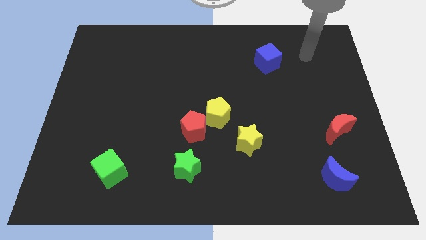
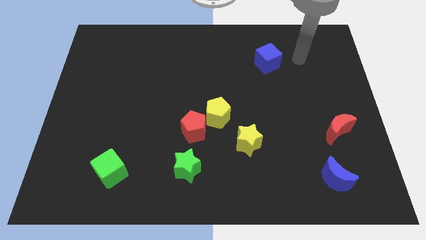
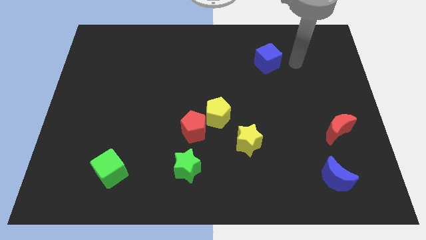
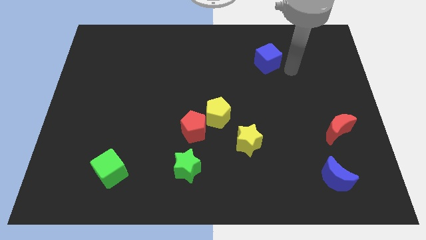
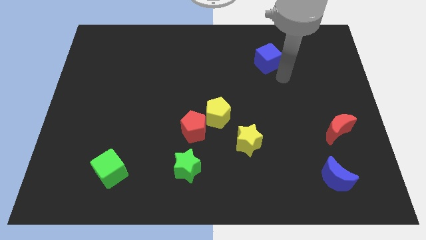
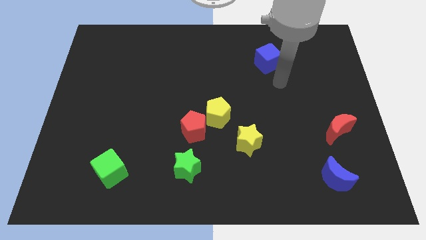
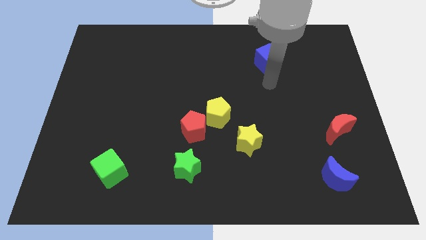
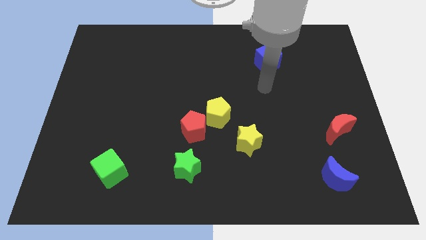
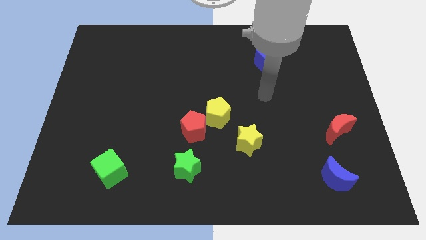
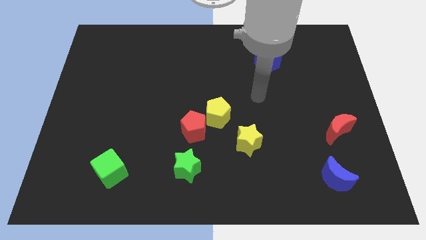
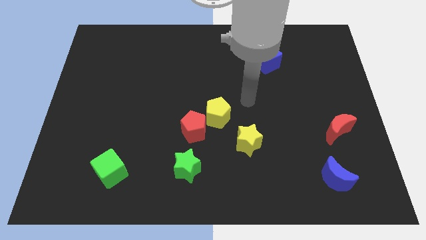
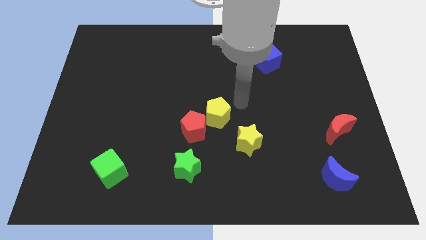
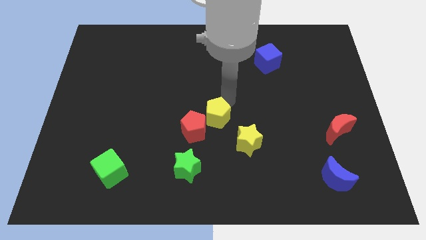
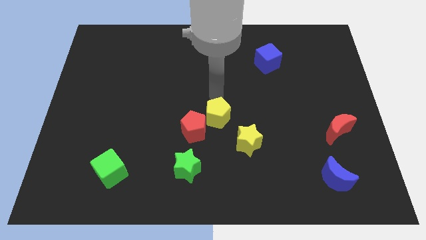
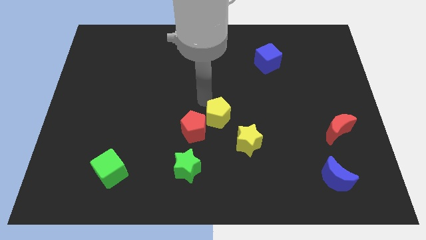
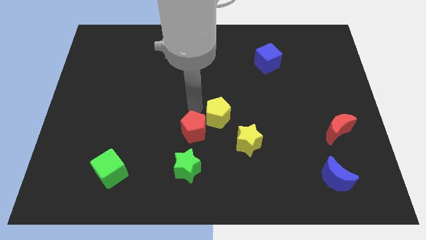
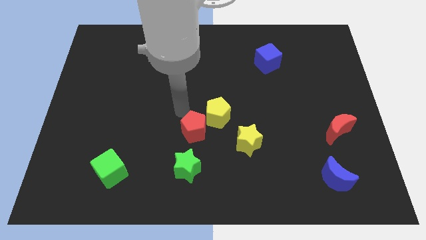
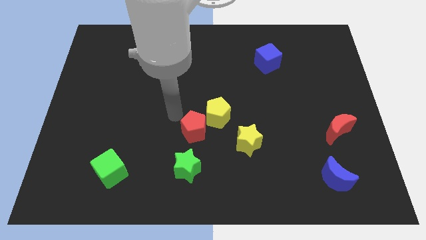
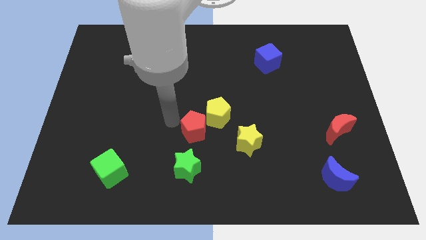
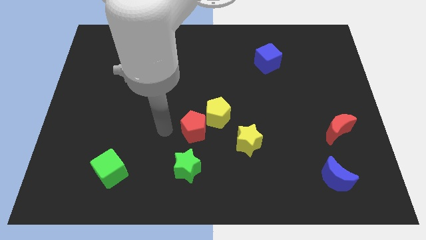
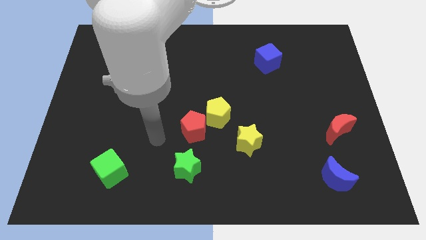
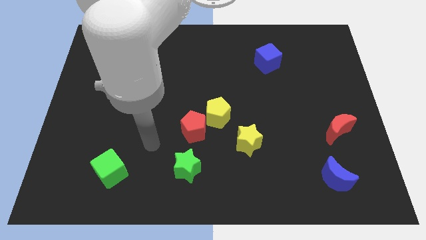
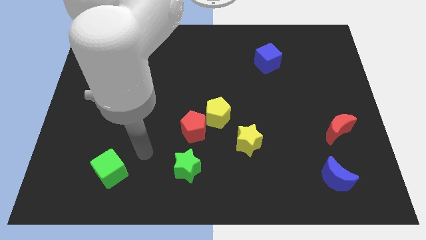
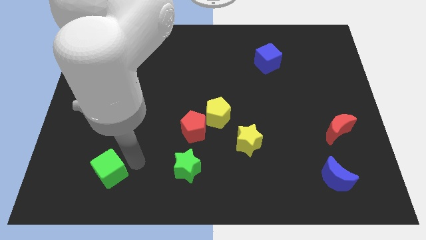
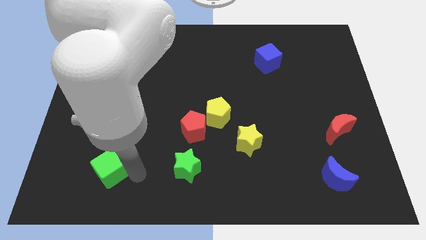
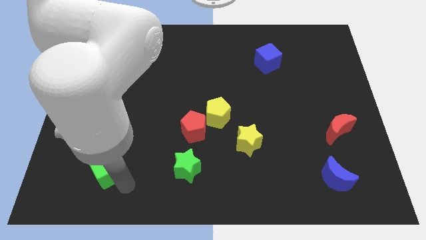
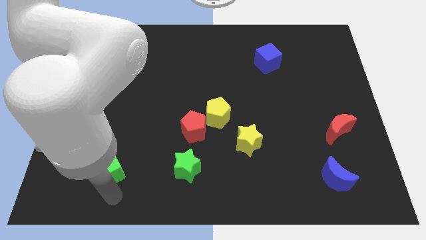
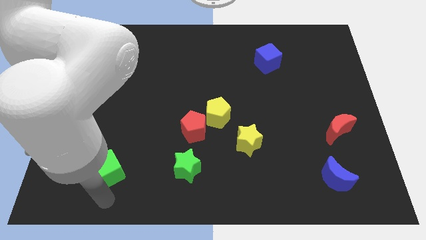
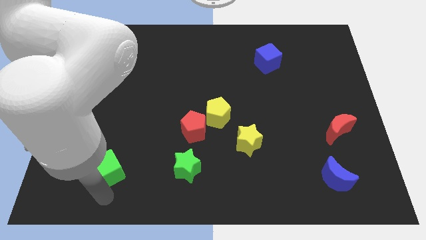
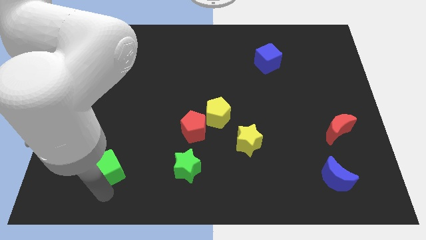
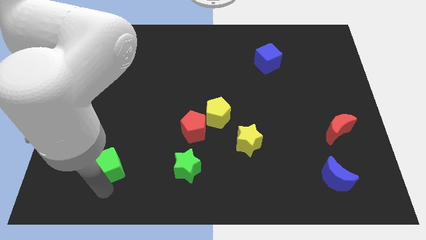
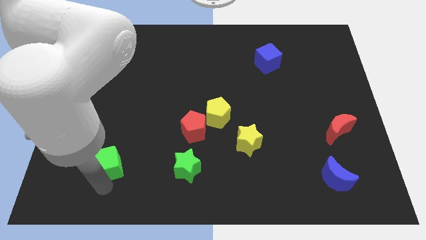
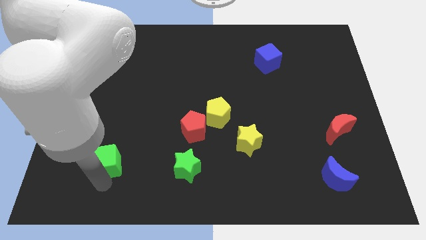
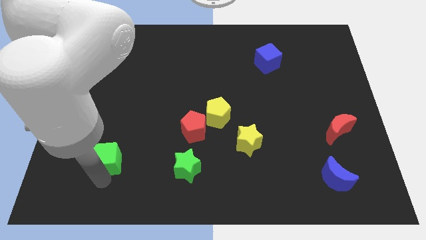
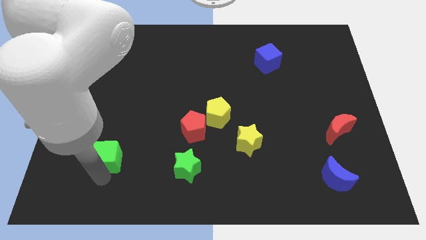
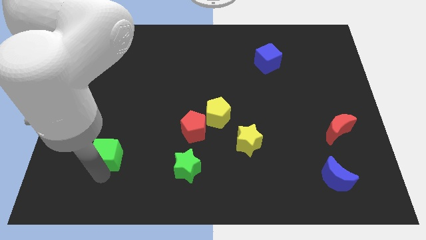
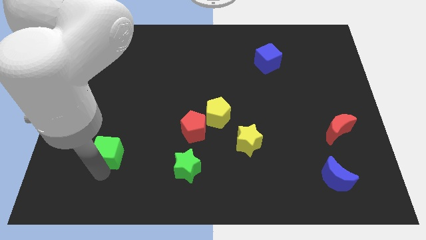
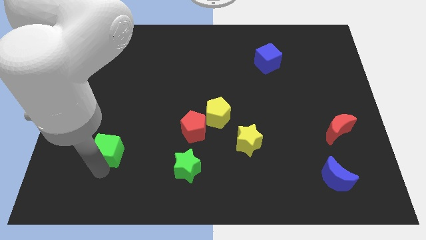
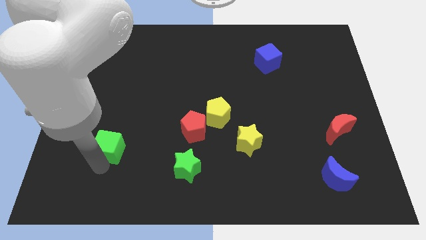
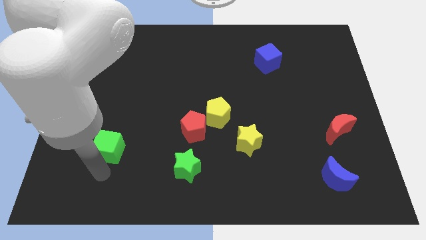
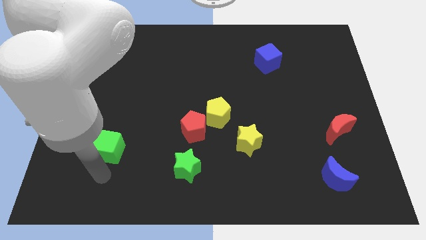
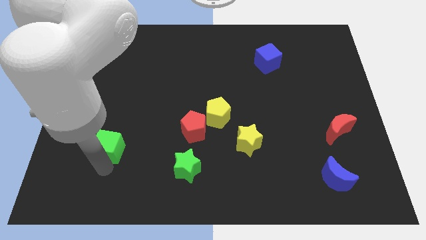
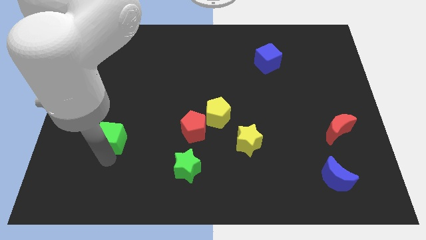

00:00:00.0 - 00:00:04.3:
move the green cube a little upwards

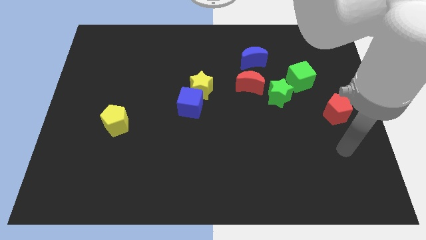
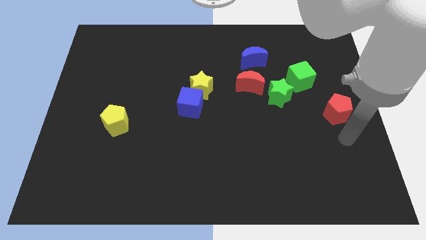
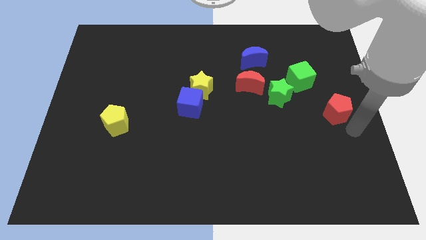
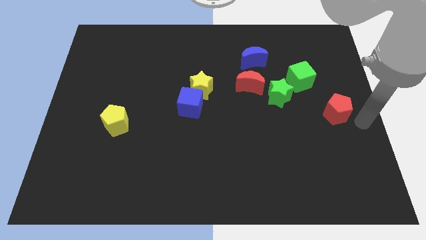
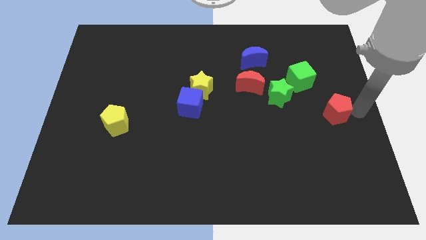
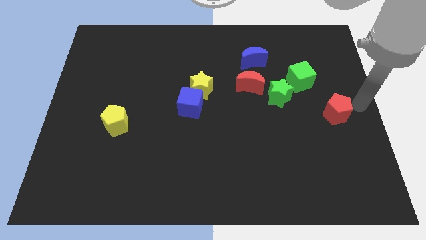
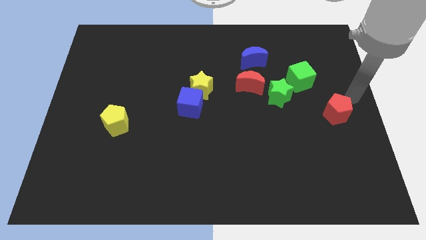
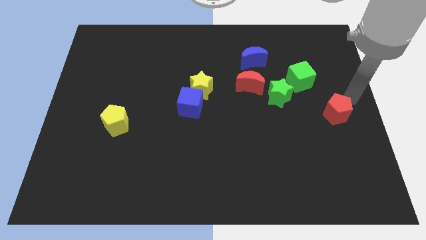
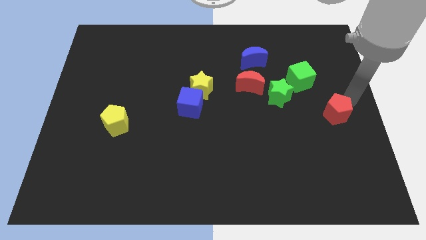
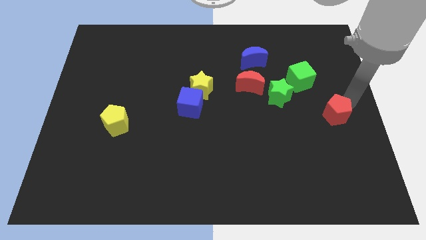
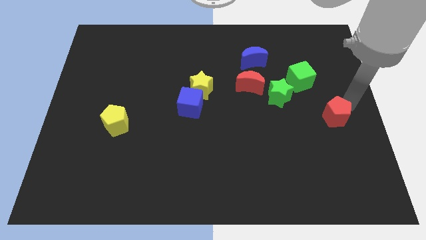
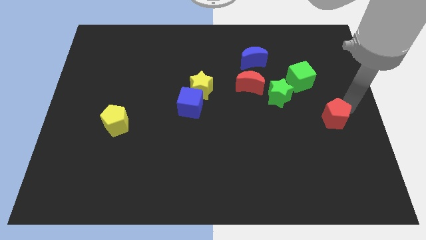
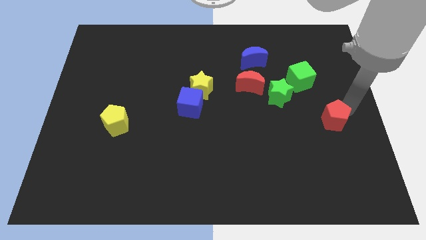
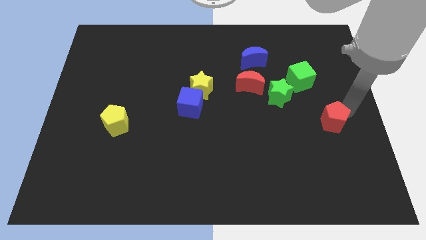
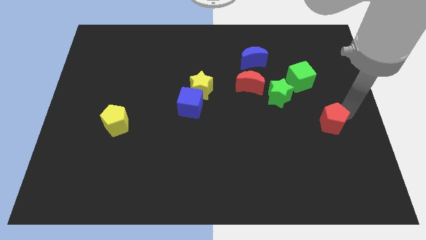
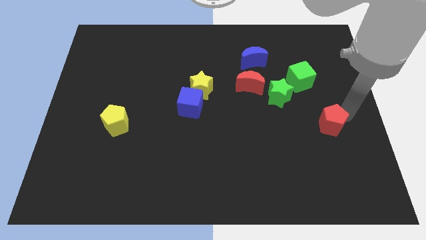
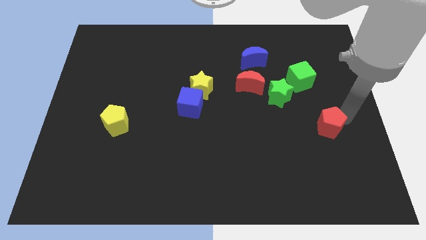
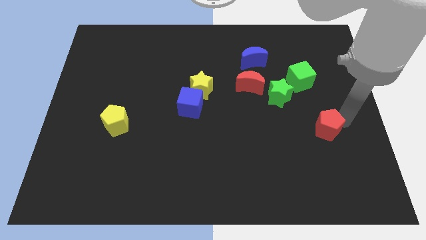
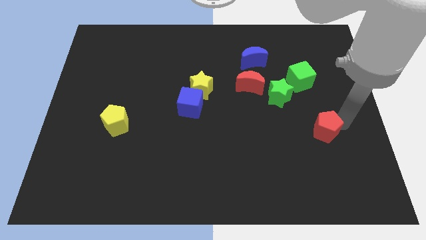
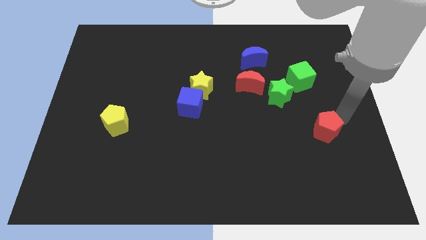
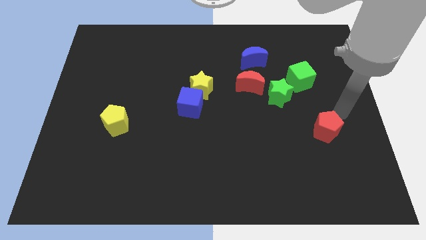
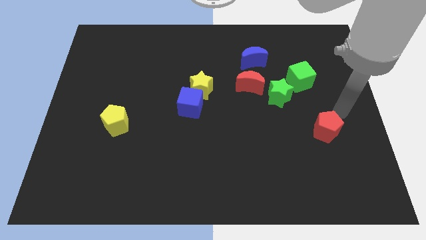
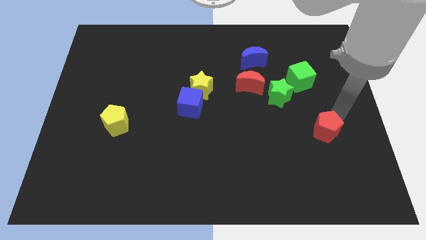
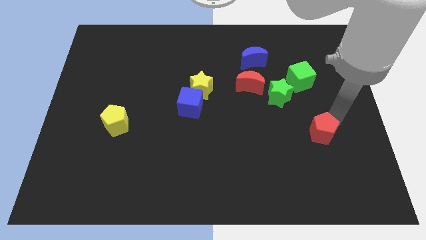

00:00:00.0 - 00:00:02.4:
push the red pentagon a little bit down and then left

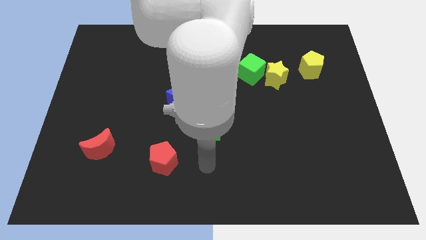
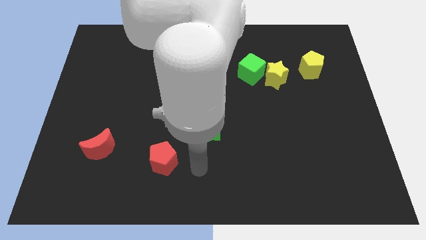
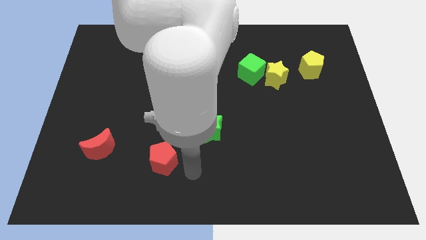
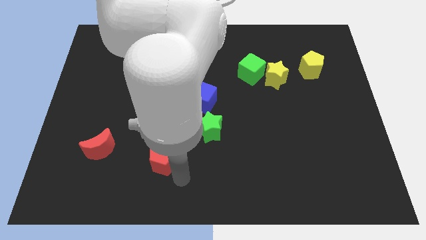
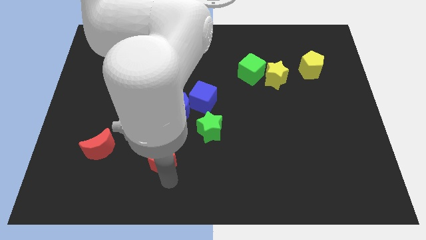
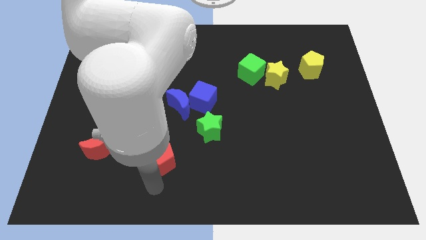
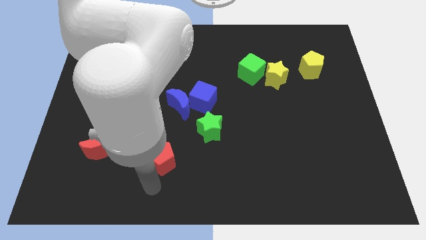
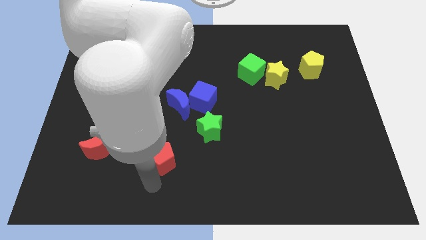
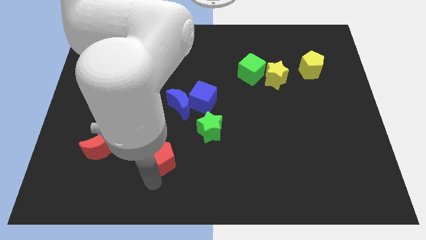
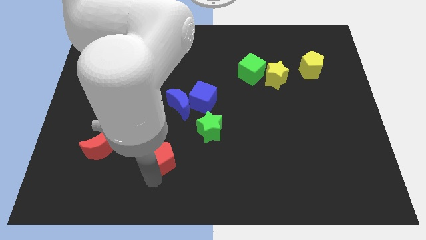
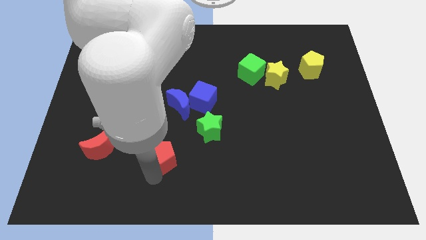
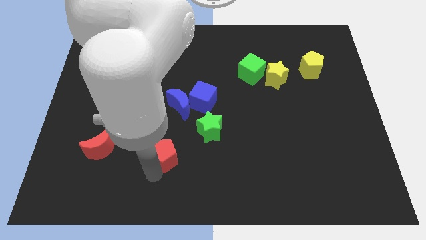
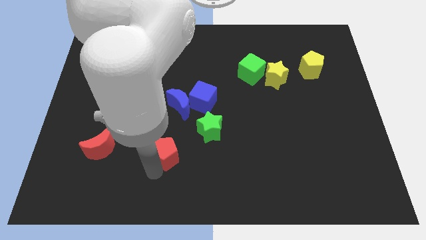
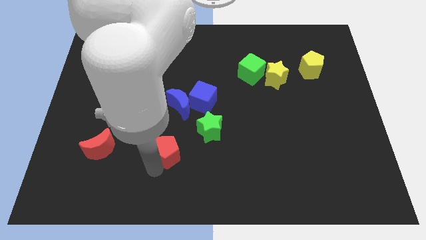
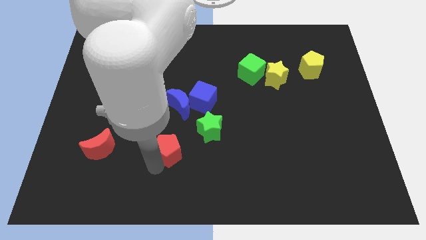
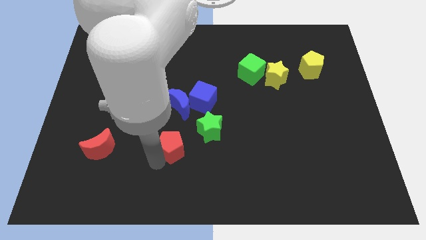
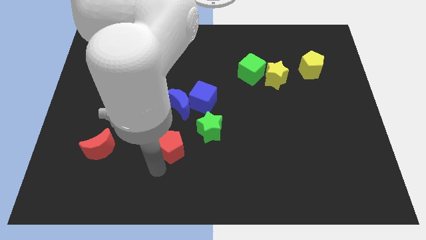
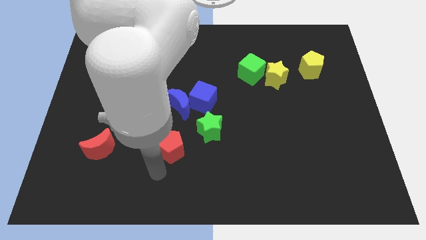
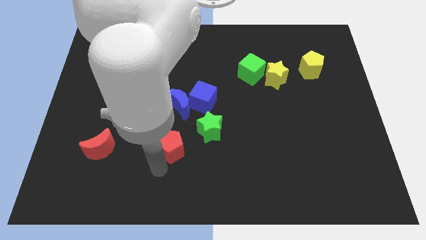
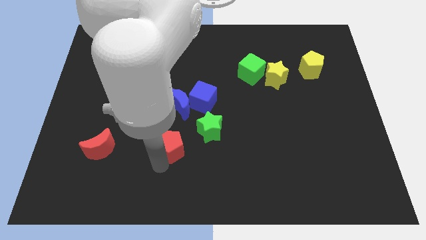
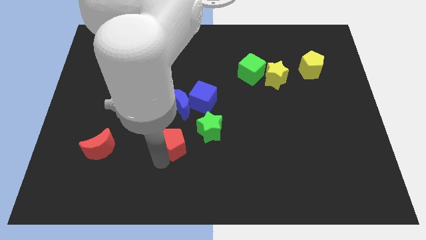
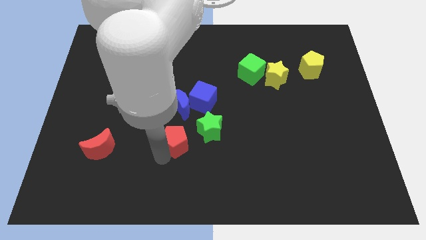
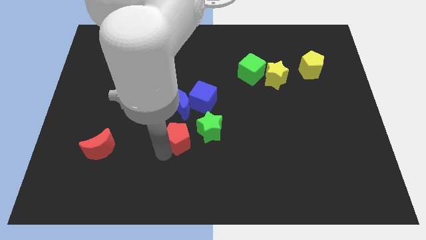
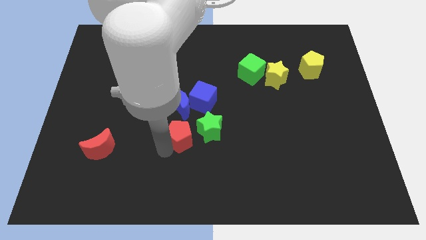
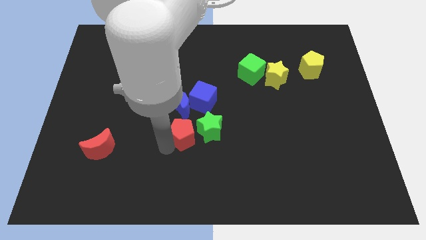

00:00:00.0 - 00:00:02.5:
move the red pentagon up and to the right slightly
